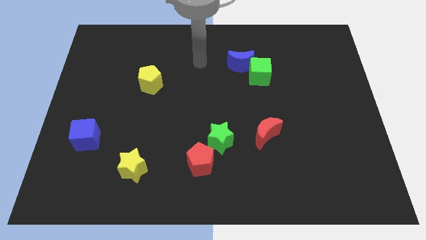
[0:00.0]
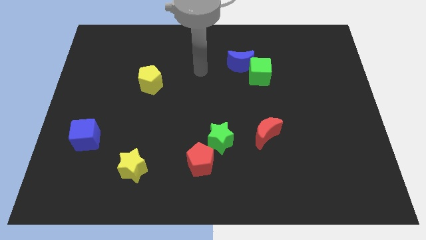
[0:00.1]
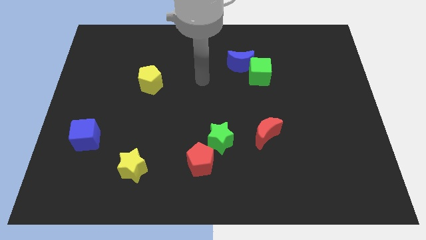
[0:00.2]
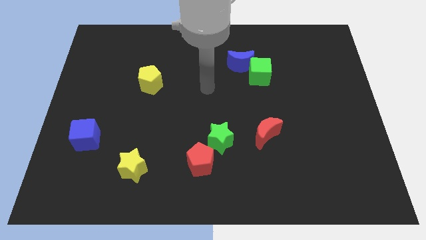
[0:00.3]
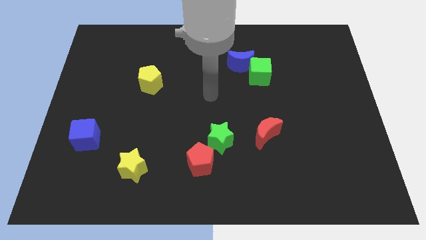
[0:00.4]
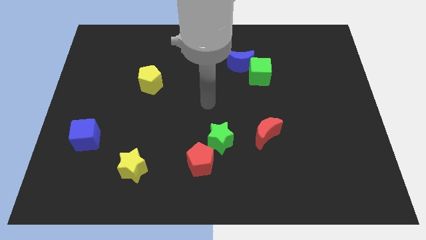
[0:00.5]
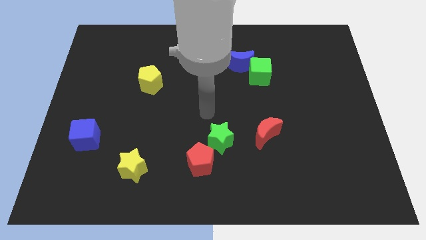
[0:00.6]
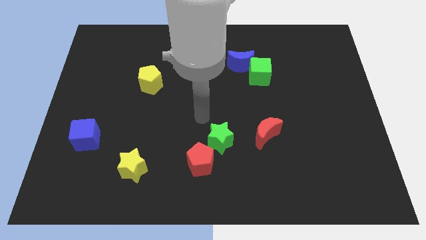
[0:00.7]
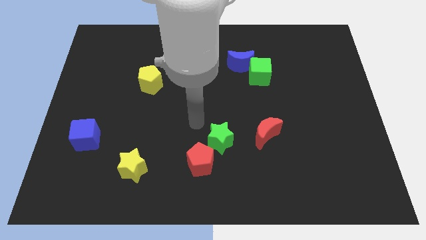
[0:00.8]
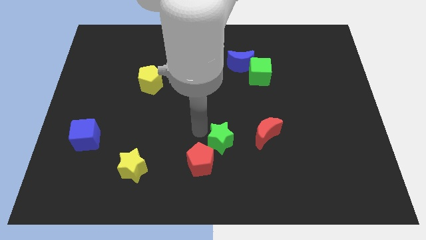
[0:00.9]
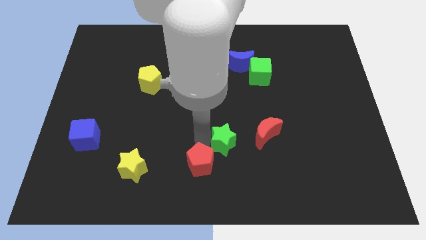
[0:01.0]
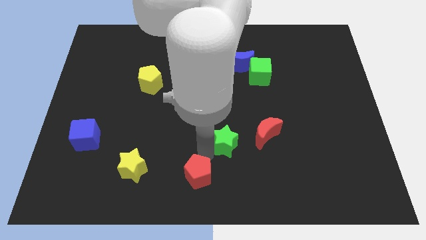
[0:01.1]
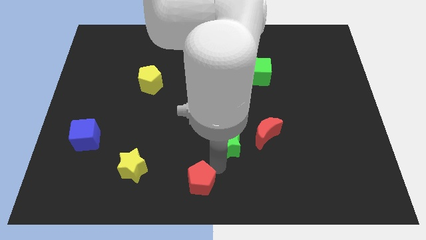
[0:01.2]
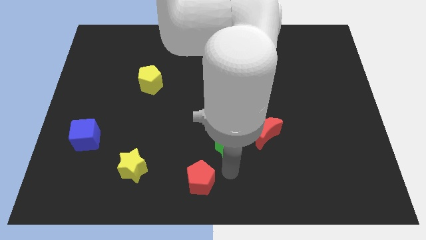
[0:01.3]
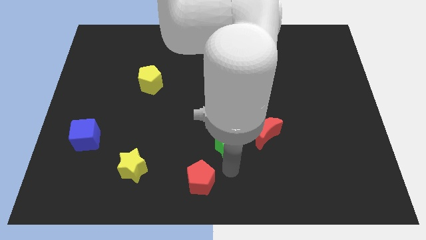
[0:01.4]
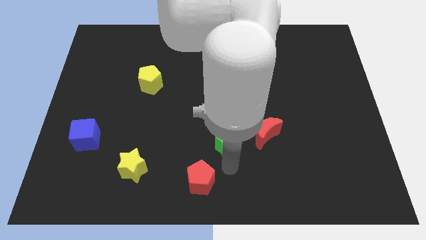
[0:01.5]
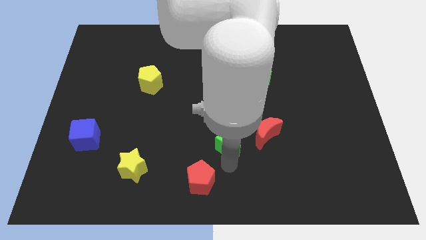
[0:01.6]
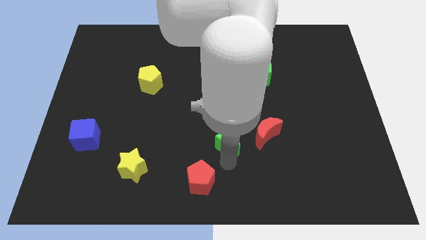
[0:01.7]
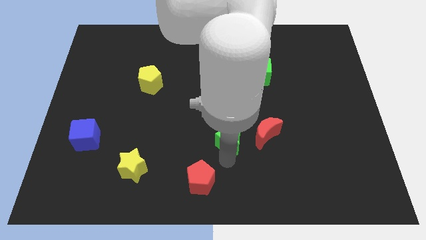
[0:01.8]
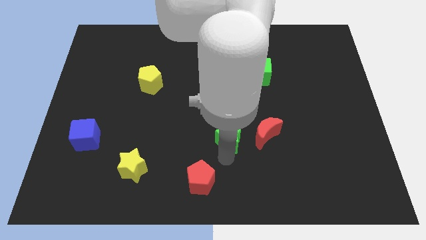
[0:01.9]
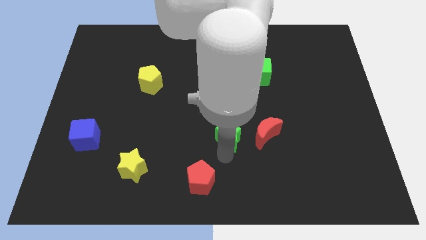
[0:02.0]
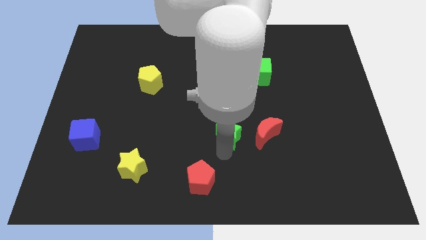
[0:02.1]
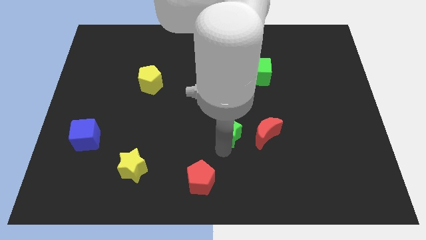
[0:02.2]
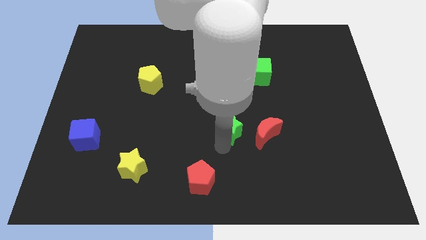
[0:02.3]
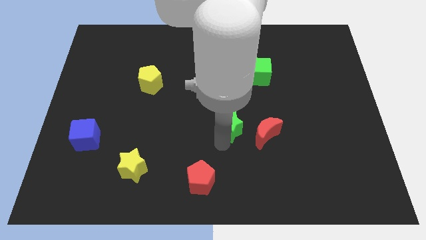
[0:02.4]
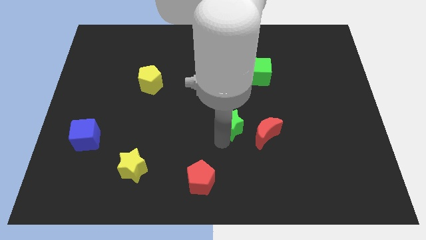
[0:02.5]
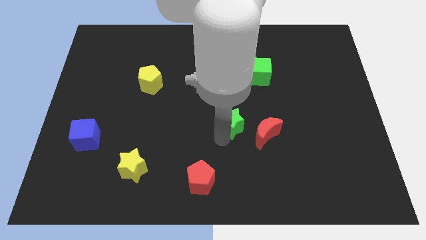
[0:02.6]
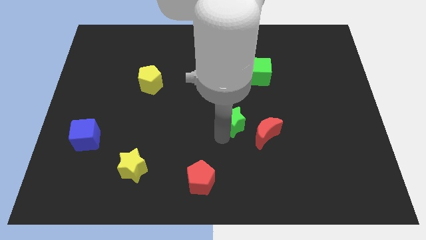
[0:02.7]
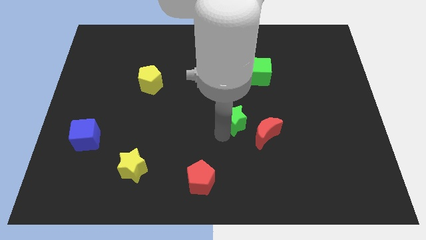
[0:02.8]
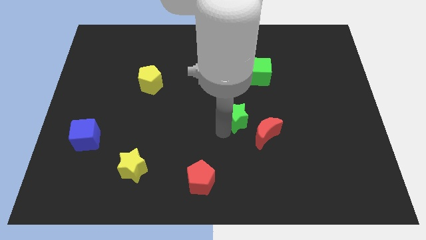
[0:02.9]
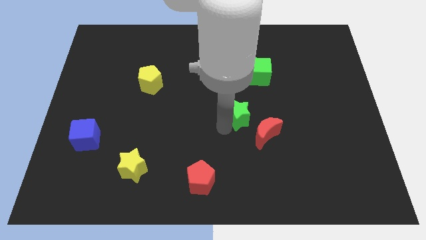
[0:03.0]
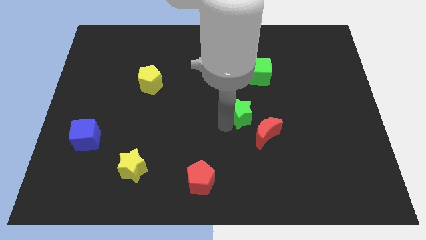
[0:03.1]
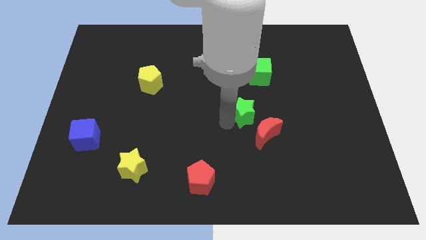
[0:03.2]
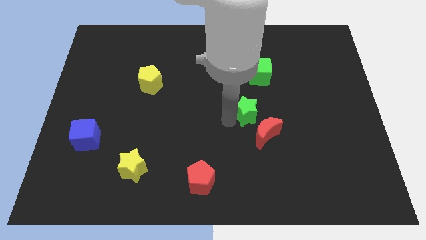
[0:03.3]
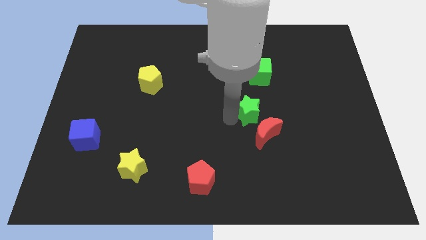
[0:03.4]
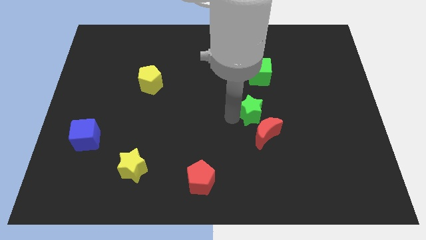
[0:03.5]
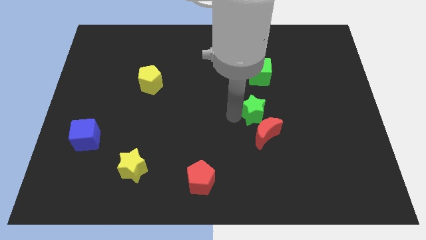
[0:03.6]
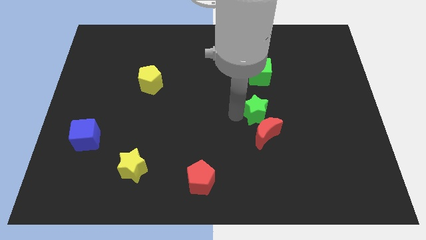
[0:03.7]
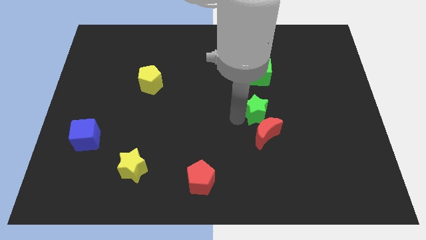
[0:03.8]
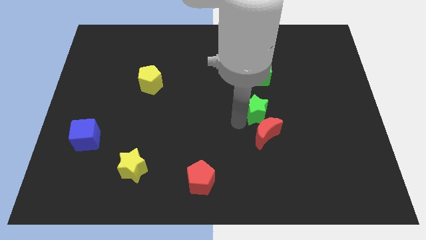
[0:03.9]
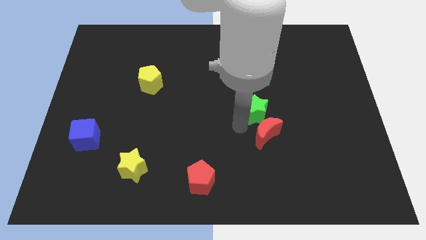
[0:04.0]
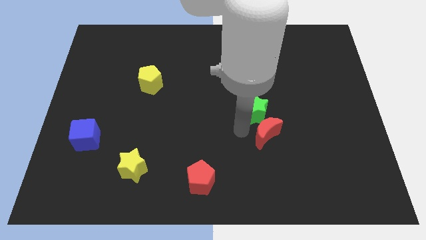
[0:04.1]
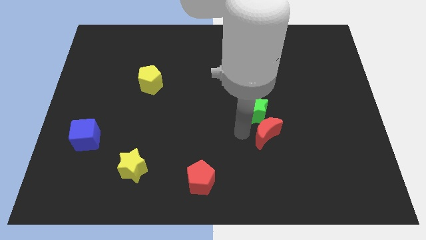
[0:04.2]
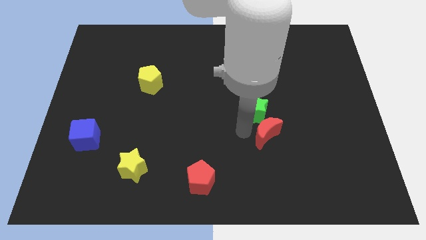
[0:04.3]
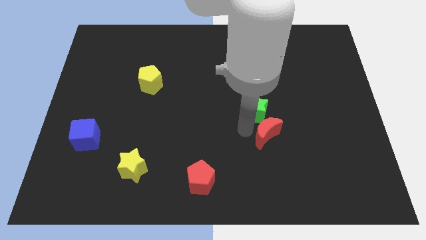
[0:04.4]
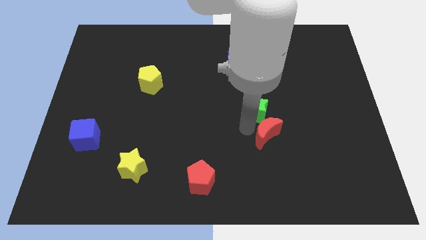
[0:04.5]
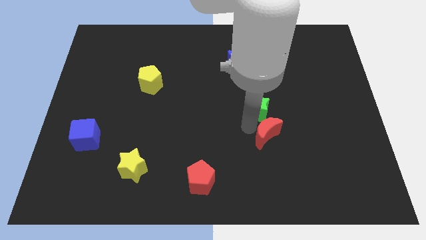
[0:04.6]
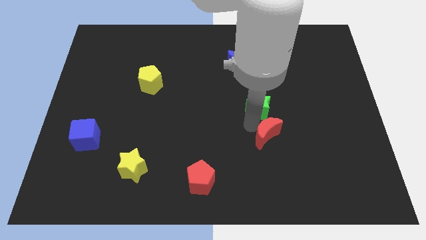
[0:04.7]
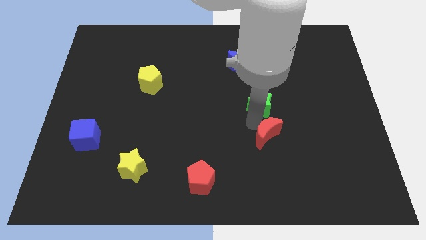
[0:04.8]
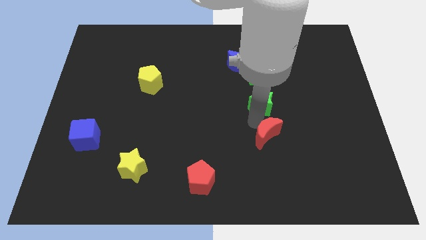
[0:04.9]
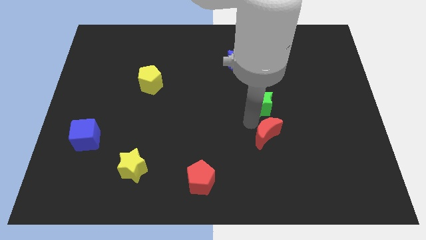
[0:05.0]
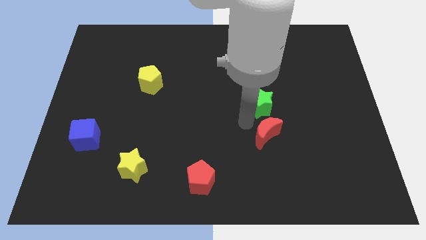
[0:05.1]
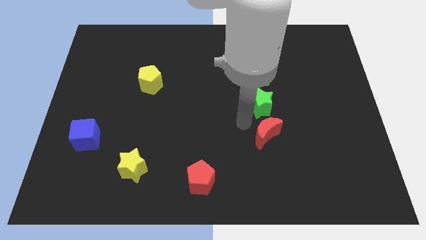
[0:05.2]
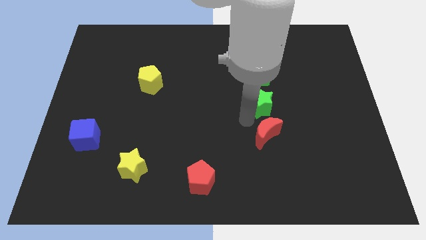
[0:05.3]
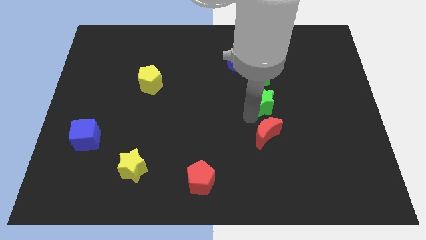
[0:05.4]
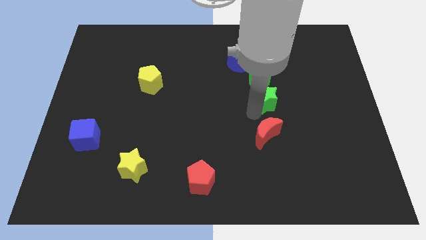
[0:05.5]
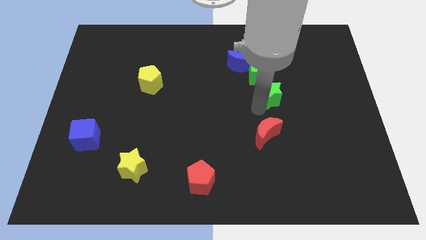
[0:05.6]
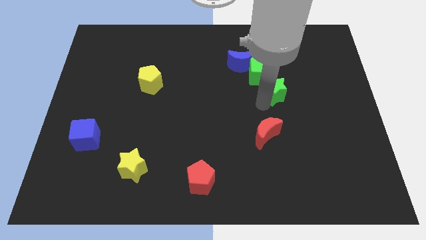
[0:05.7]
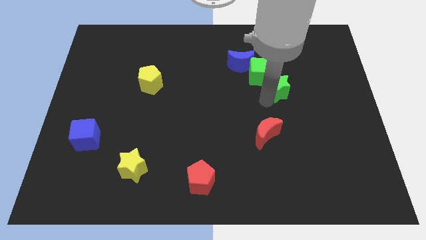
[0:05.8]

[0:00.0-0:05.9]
push the green star upwards and right

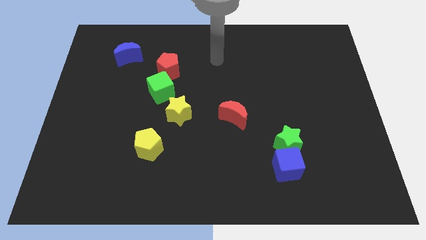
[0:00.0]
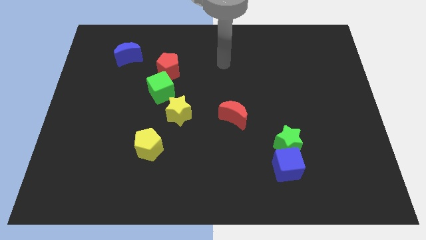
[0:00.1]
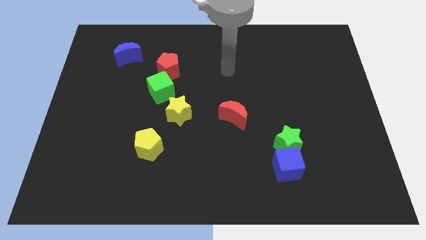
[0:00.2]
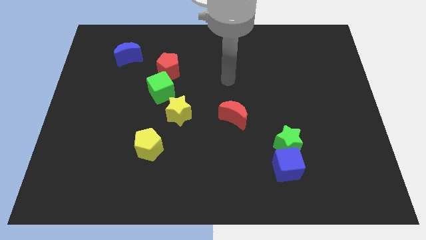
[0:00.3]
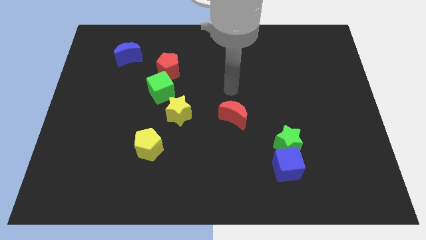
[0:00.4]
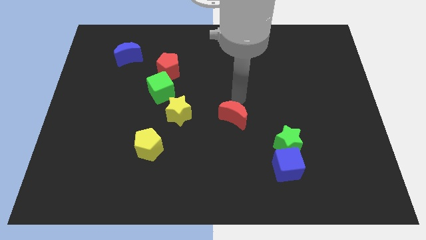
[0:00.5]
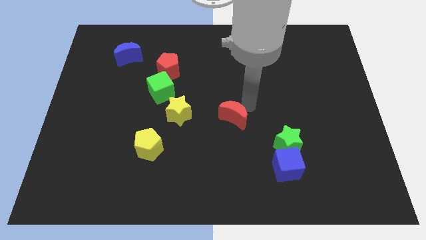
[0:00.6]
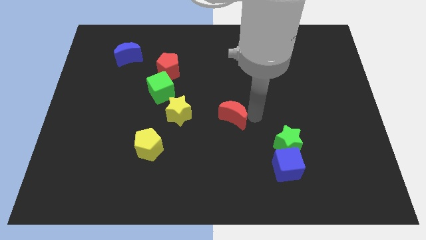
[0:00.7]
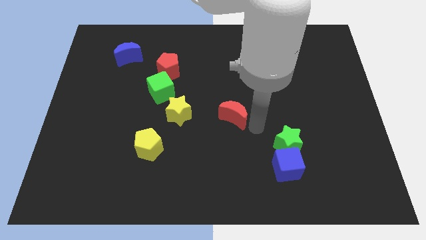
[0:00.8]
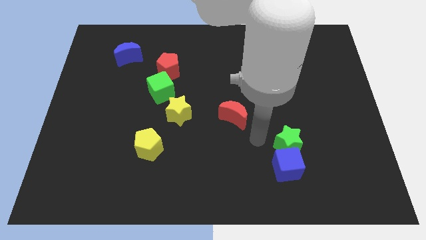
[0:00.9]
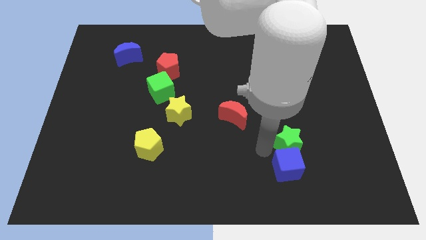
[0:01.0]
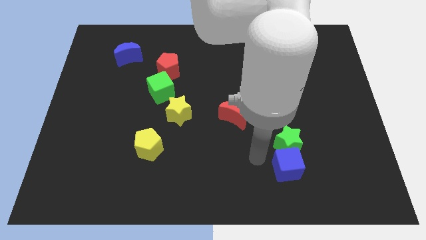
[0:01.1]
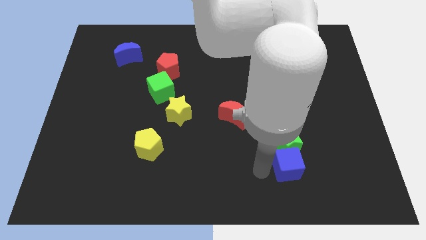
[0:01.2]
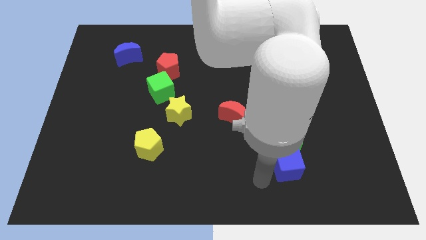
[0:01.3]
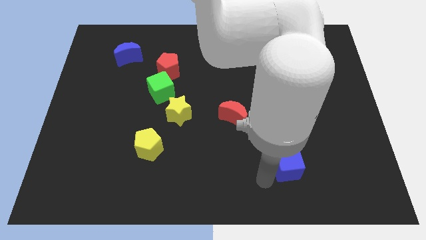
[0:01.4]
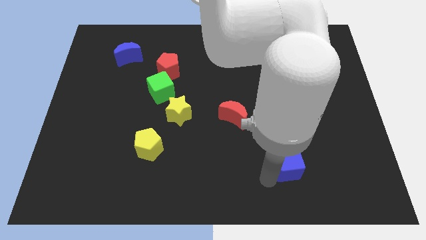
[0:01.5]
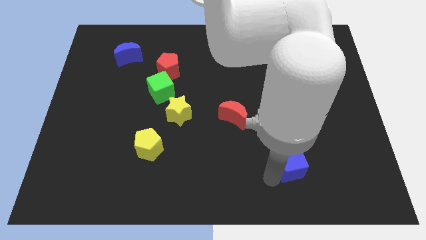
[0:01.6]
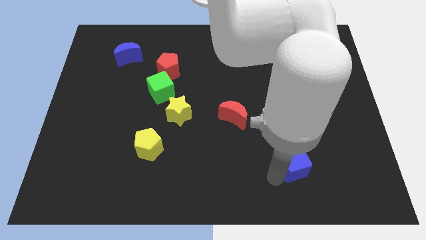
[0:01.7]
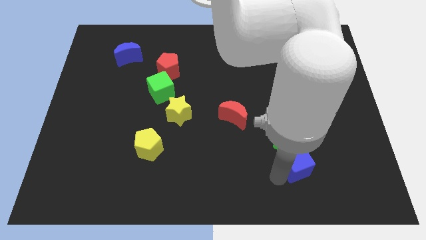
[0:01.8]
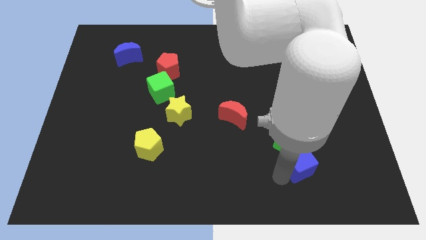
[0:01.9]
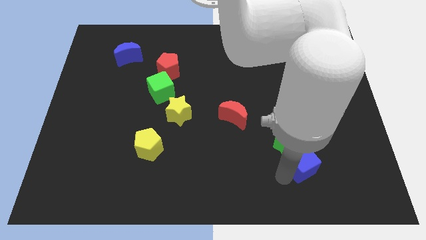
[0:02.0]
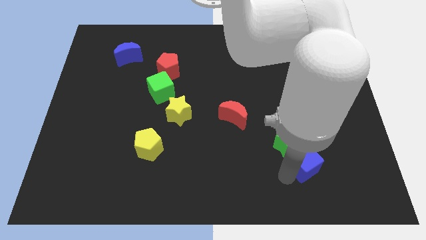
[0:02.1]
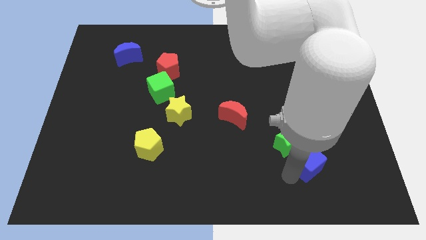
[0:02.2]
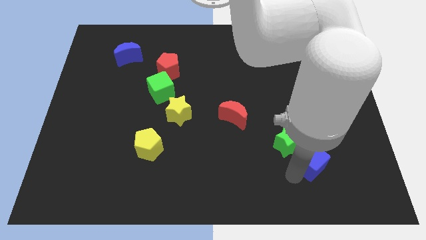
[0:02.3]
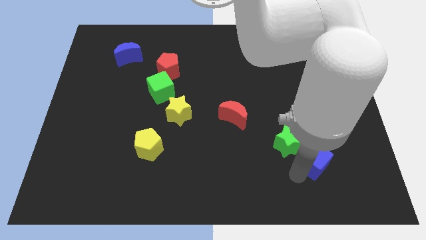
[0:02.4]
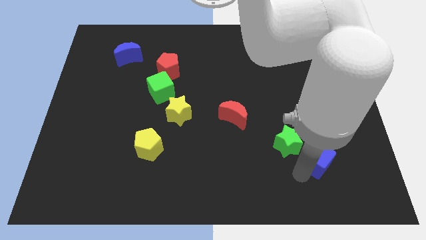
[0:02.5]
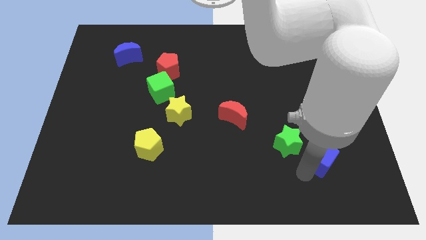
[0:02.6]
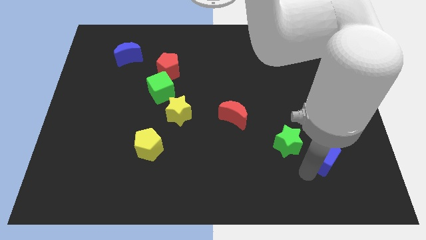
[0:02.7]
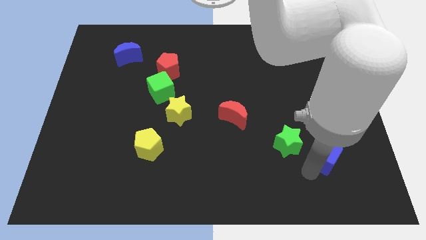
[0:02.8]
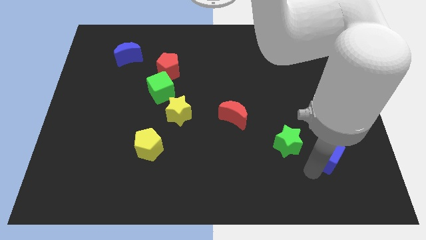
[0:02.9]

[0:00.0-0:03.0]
move the blue cube a bit up and right diagonally
